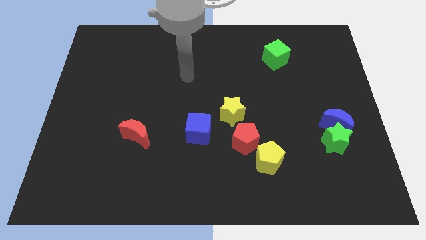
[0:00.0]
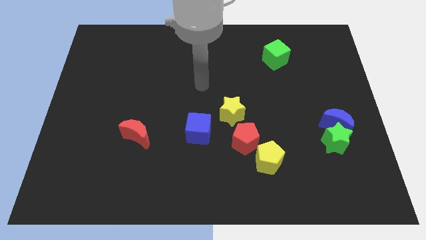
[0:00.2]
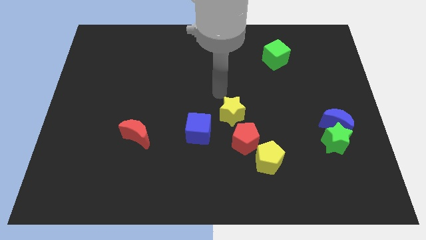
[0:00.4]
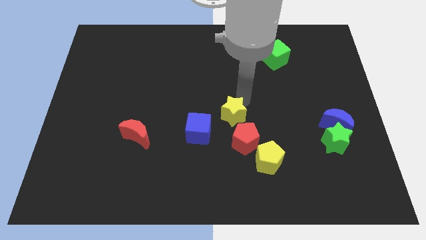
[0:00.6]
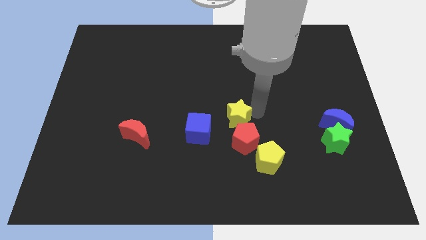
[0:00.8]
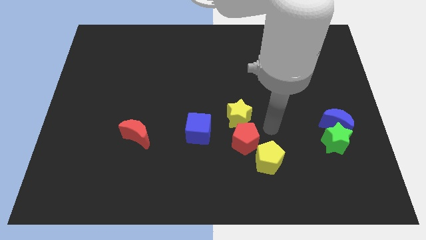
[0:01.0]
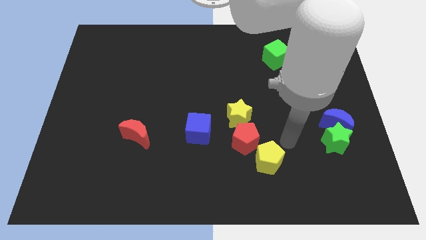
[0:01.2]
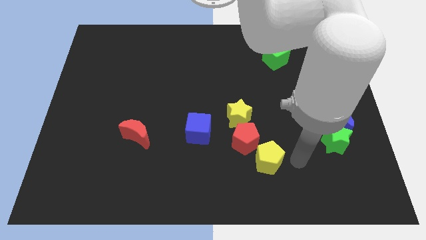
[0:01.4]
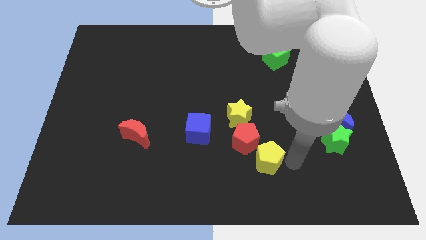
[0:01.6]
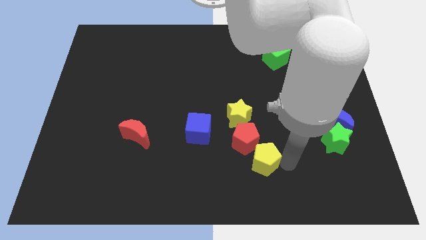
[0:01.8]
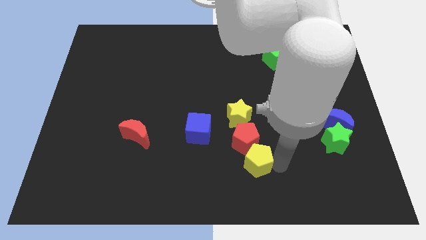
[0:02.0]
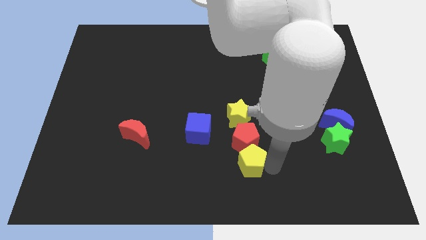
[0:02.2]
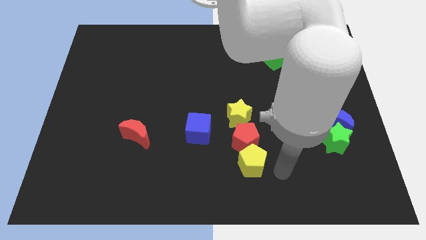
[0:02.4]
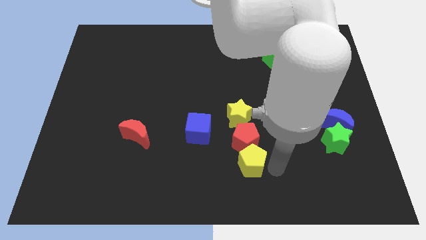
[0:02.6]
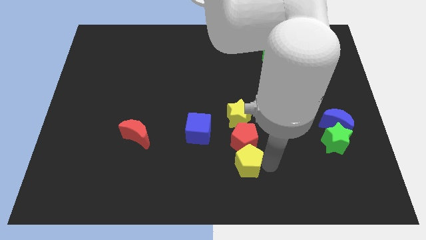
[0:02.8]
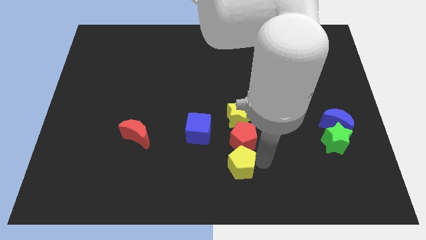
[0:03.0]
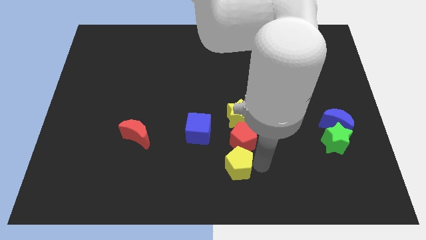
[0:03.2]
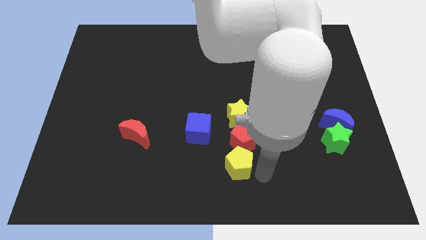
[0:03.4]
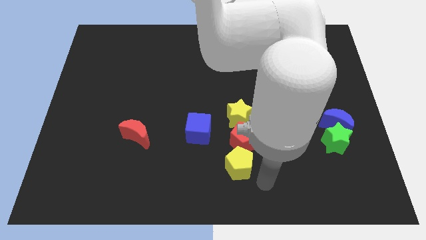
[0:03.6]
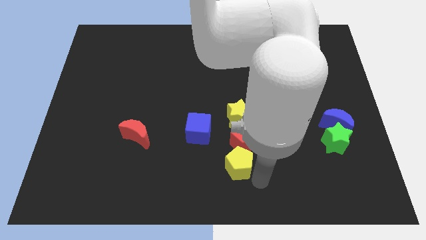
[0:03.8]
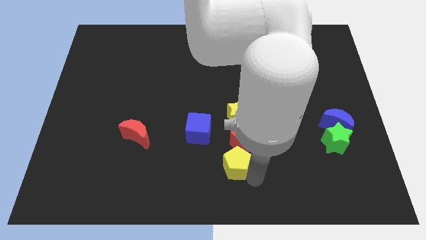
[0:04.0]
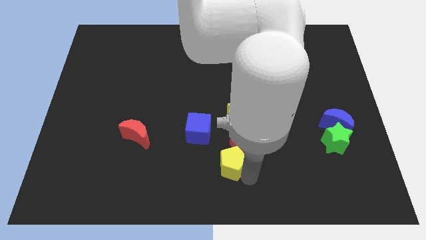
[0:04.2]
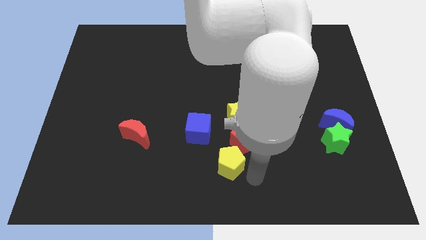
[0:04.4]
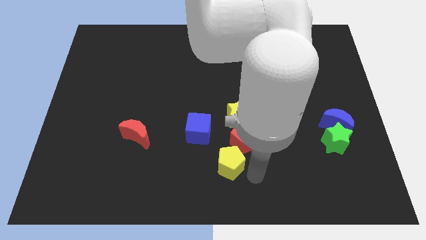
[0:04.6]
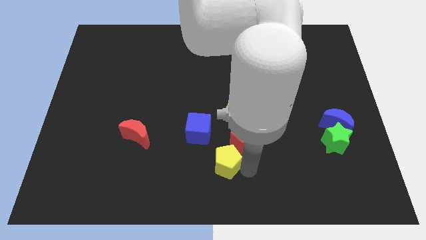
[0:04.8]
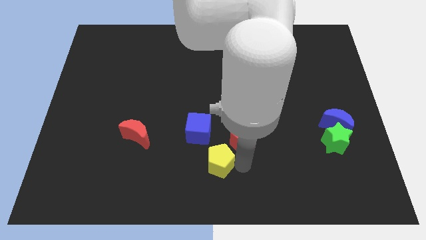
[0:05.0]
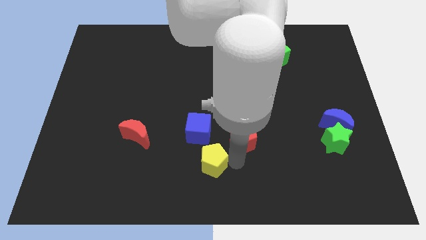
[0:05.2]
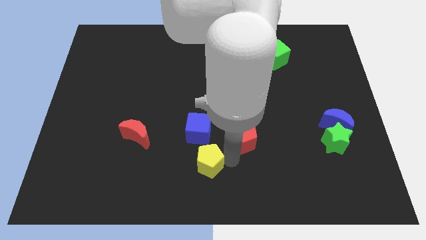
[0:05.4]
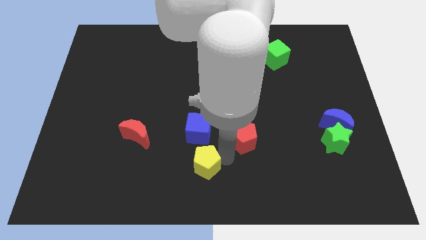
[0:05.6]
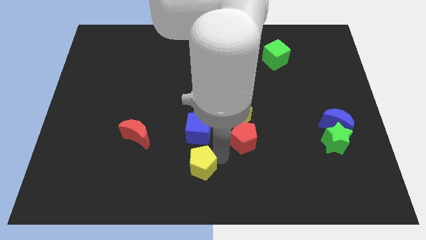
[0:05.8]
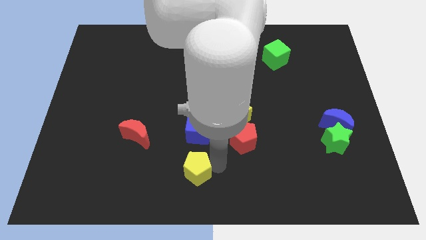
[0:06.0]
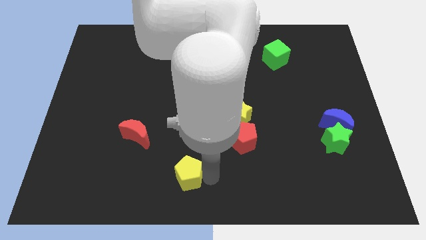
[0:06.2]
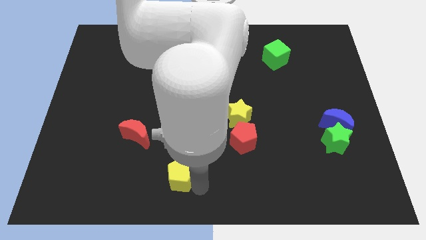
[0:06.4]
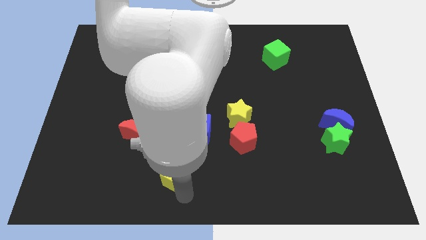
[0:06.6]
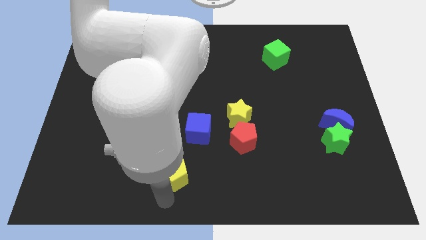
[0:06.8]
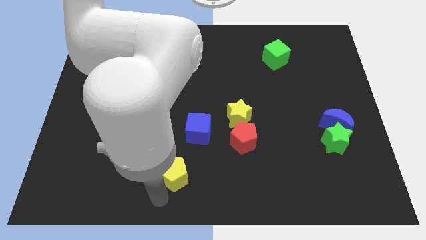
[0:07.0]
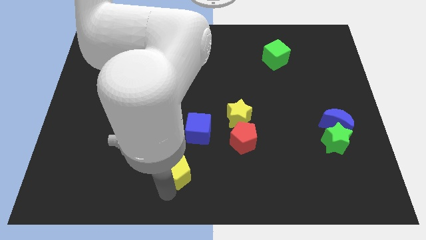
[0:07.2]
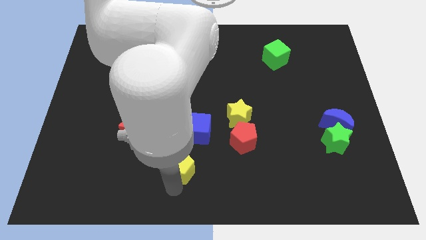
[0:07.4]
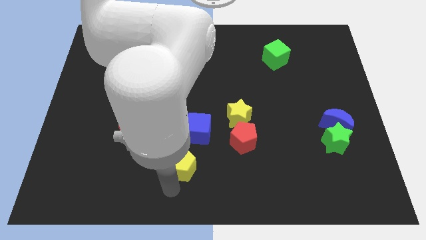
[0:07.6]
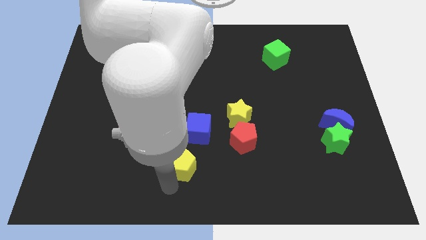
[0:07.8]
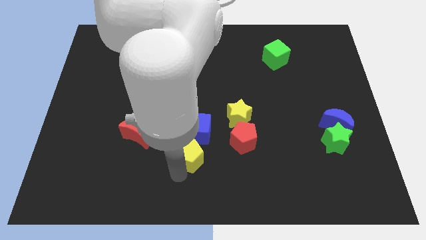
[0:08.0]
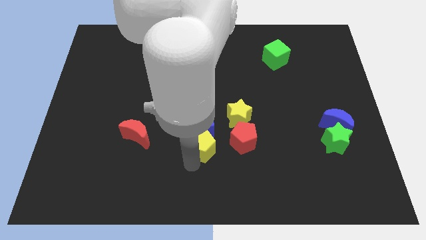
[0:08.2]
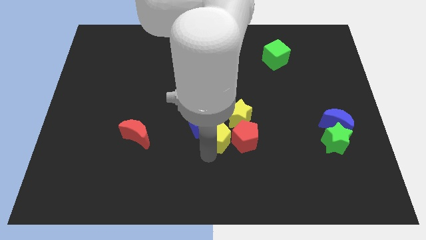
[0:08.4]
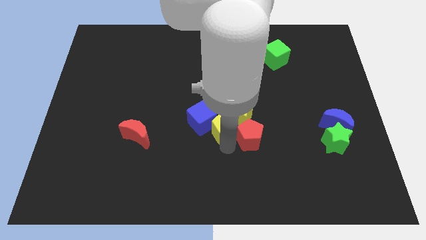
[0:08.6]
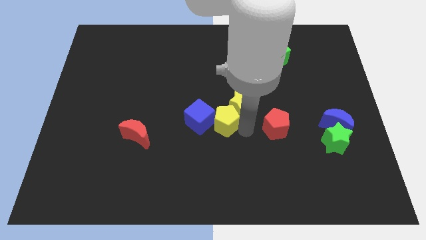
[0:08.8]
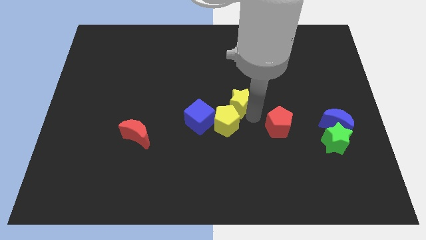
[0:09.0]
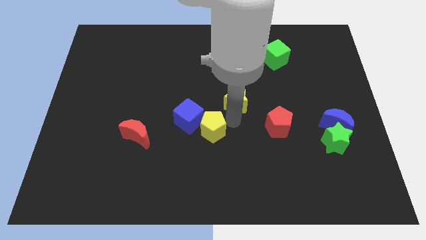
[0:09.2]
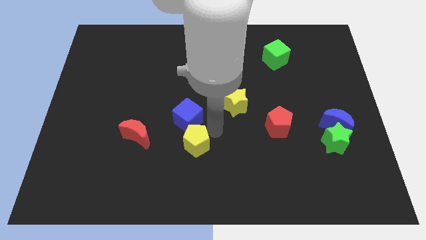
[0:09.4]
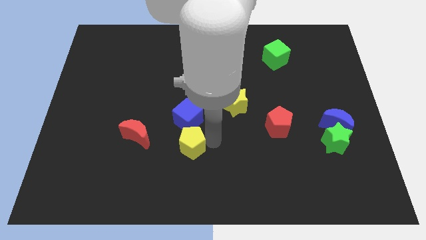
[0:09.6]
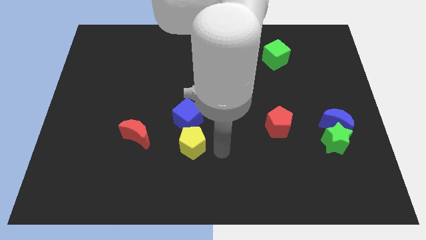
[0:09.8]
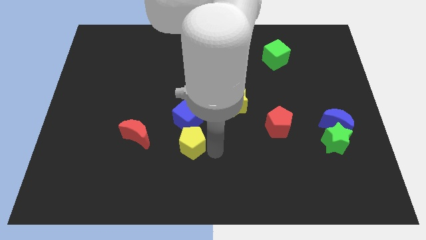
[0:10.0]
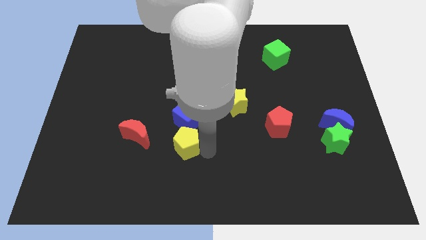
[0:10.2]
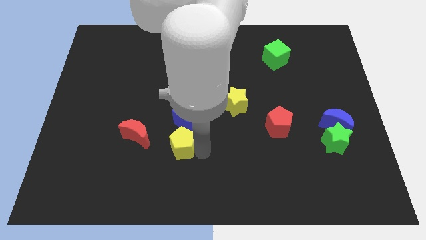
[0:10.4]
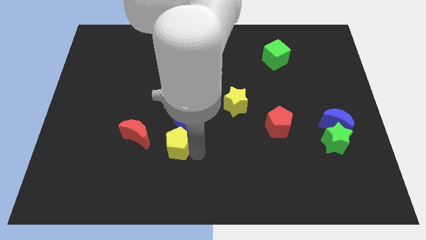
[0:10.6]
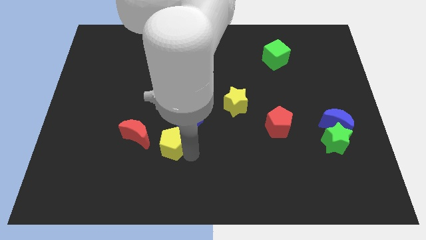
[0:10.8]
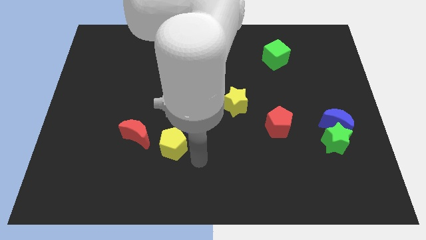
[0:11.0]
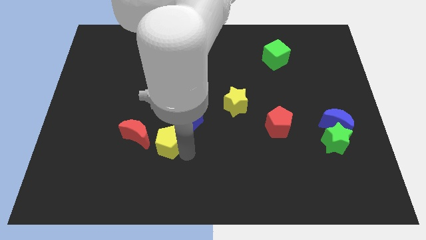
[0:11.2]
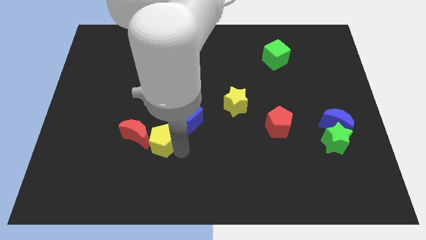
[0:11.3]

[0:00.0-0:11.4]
slide the yellow pentagon close to the red moon

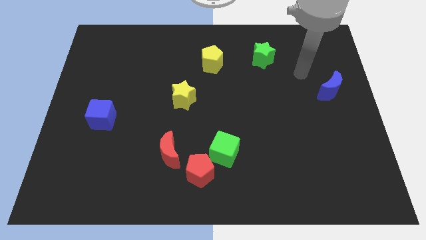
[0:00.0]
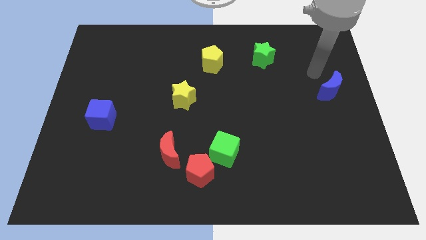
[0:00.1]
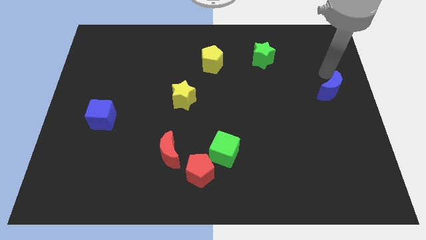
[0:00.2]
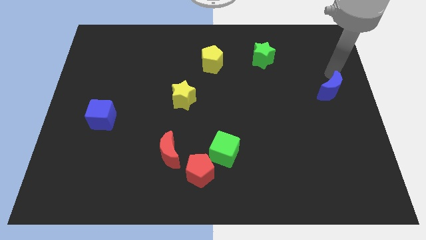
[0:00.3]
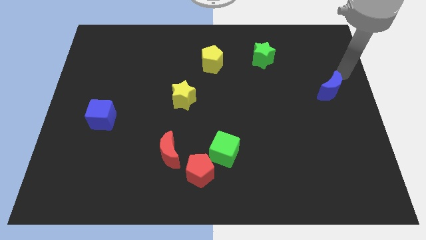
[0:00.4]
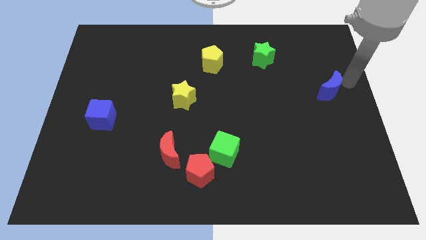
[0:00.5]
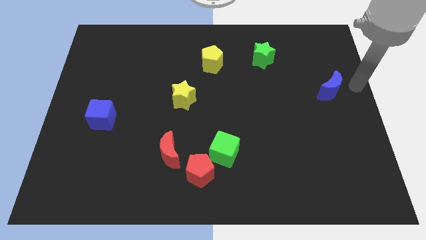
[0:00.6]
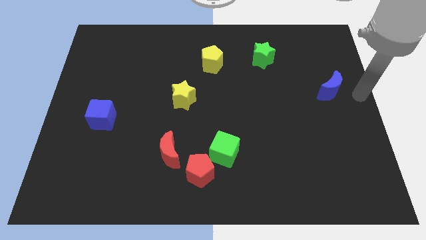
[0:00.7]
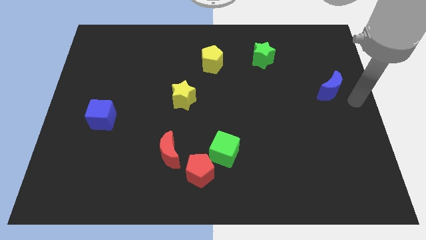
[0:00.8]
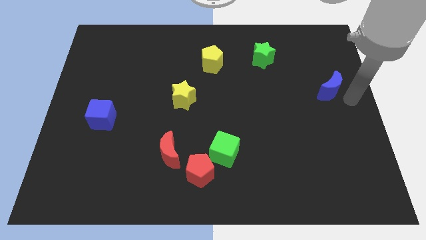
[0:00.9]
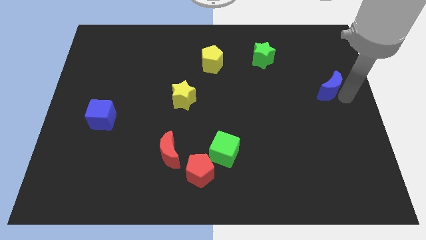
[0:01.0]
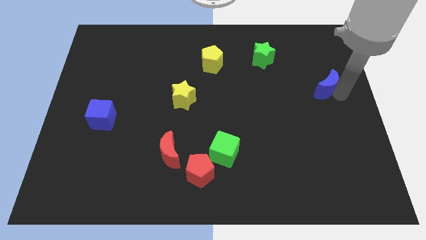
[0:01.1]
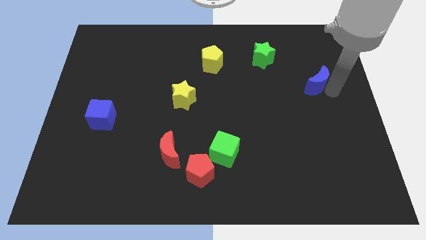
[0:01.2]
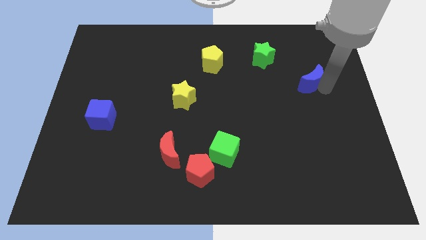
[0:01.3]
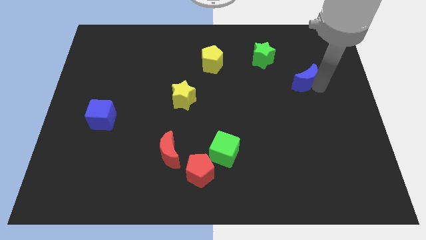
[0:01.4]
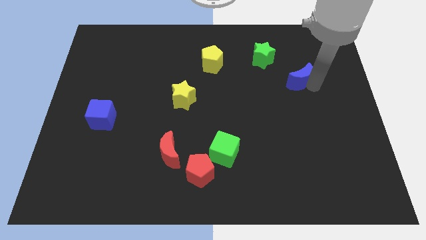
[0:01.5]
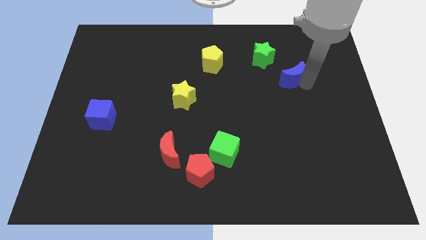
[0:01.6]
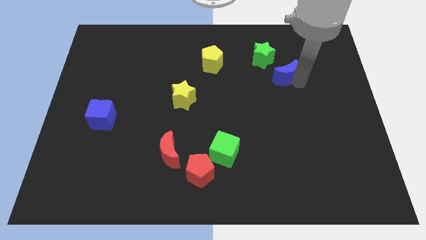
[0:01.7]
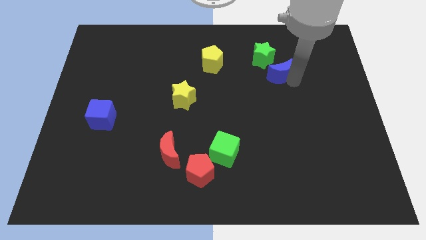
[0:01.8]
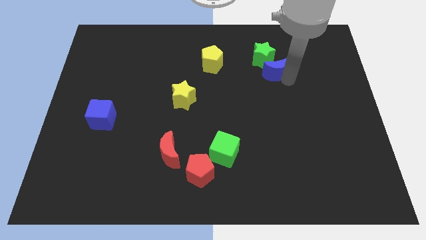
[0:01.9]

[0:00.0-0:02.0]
move the blue moon next to the green star
